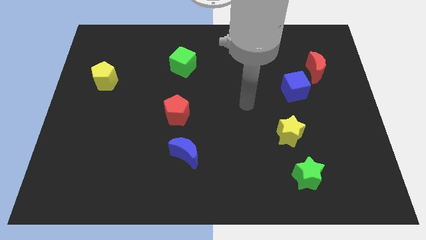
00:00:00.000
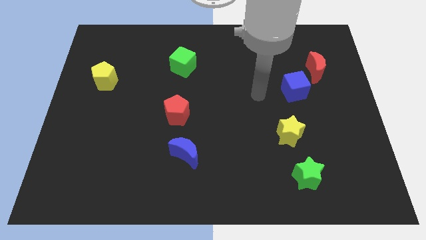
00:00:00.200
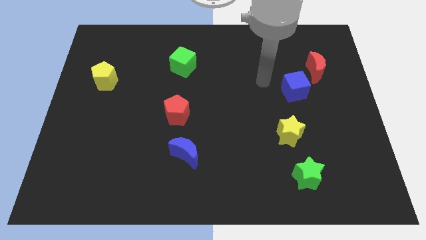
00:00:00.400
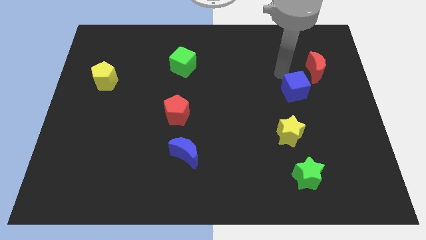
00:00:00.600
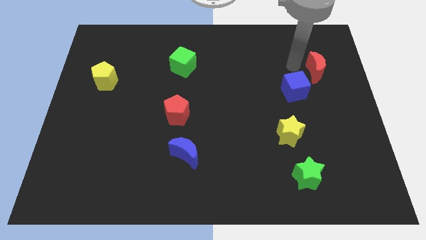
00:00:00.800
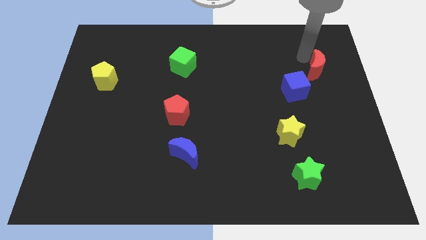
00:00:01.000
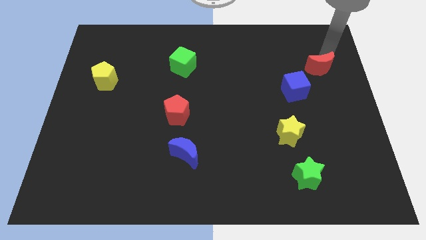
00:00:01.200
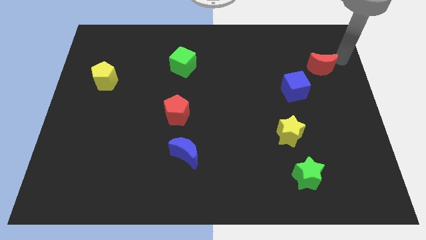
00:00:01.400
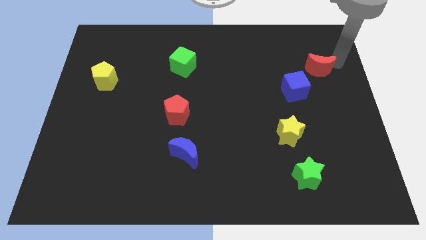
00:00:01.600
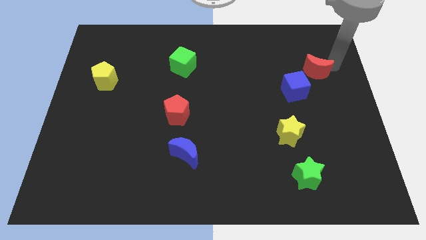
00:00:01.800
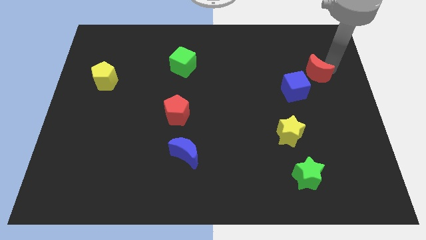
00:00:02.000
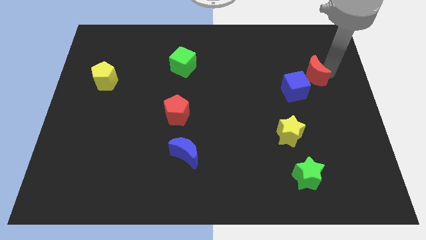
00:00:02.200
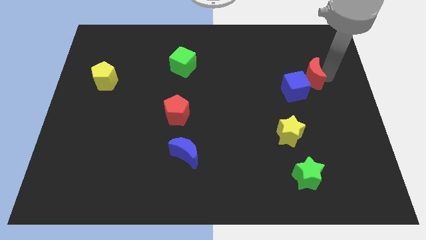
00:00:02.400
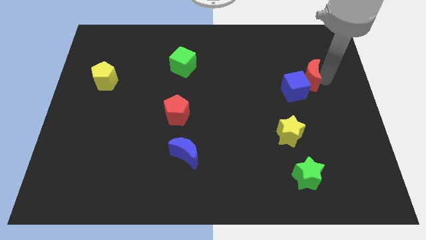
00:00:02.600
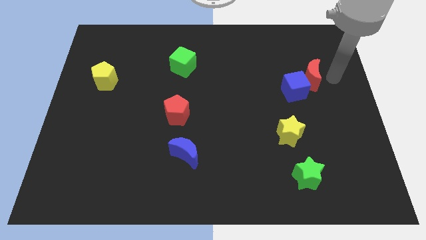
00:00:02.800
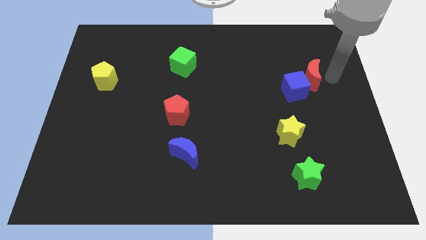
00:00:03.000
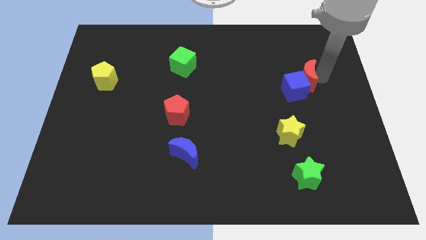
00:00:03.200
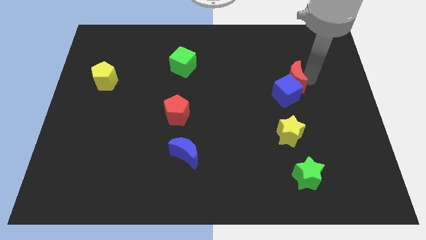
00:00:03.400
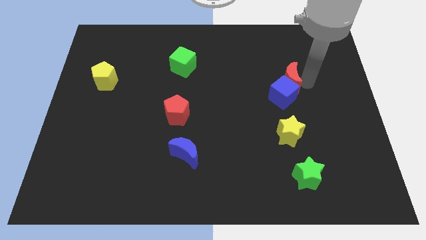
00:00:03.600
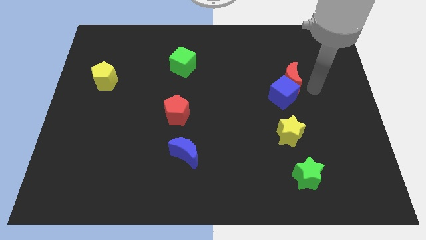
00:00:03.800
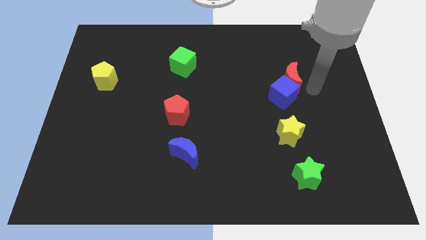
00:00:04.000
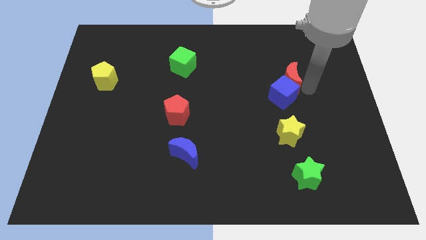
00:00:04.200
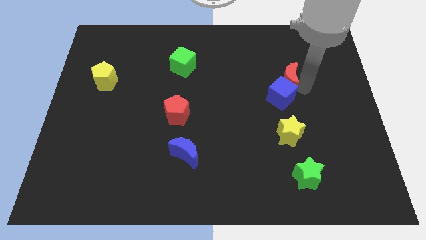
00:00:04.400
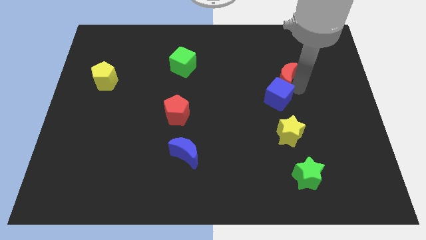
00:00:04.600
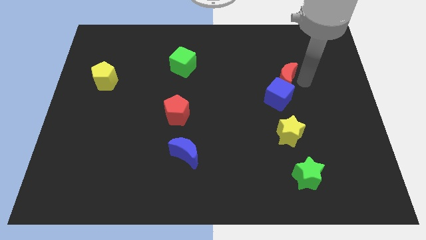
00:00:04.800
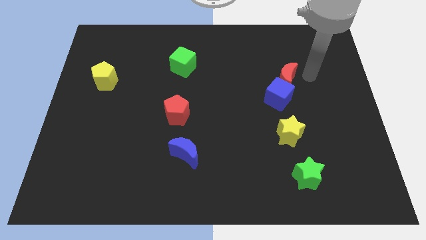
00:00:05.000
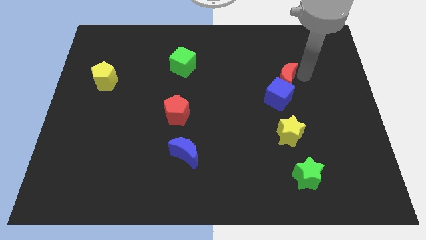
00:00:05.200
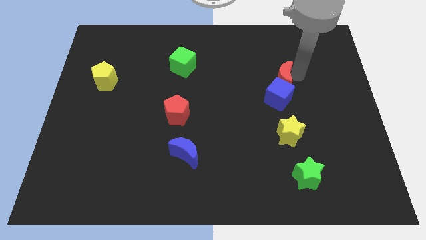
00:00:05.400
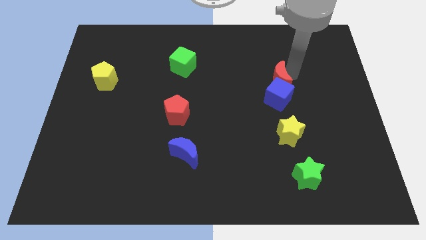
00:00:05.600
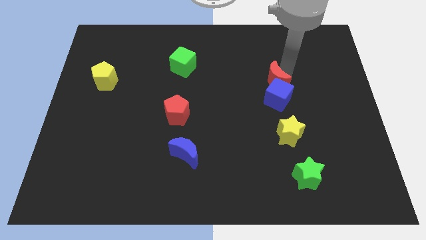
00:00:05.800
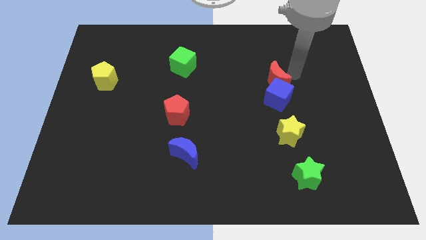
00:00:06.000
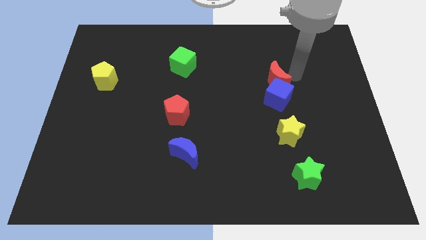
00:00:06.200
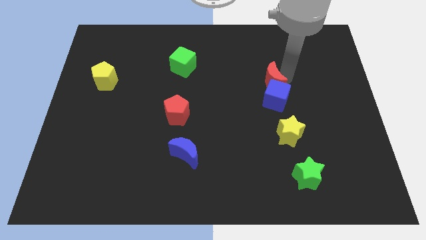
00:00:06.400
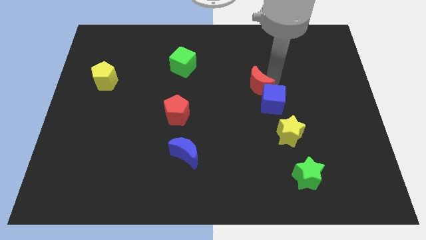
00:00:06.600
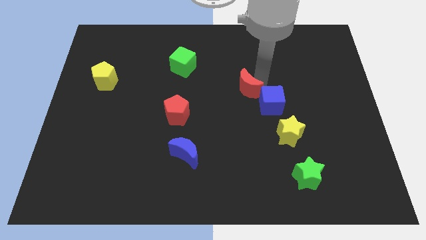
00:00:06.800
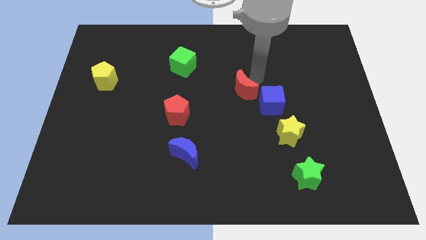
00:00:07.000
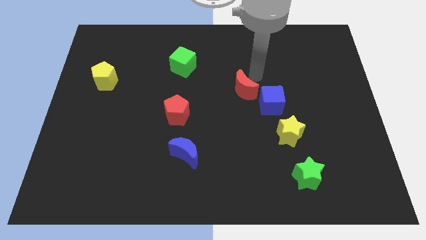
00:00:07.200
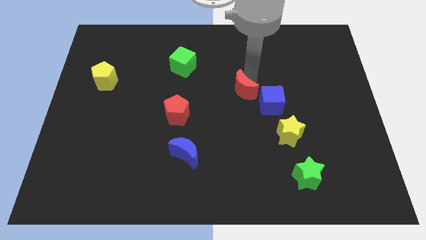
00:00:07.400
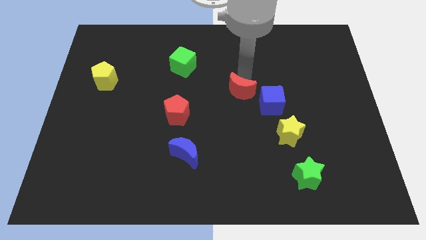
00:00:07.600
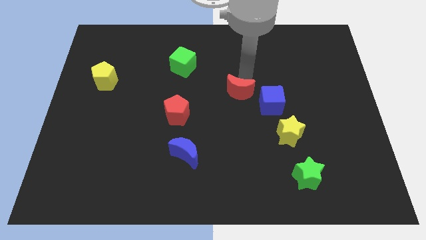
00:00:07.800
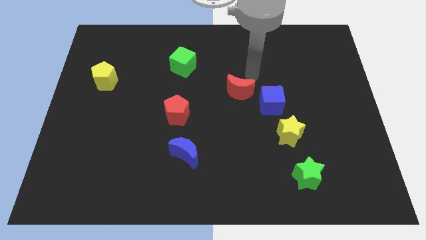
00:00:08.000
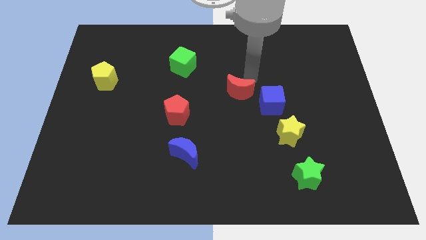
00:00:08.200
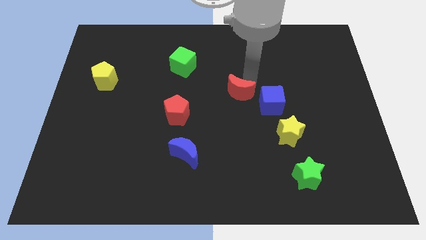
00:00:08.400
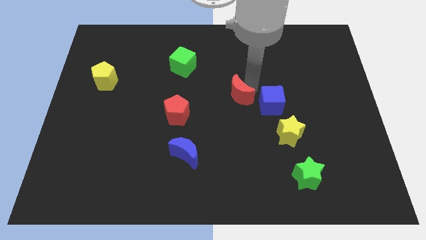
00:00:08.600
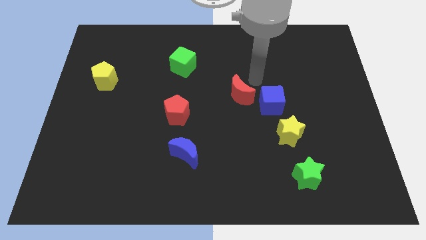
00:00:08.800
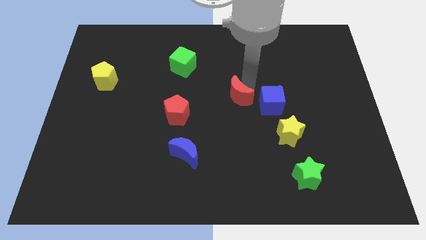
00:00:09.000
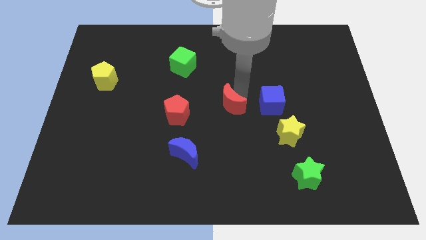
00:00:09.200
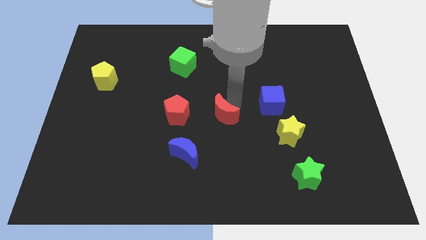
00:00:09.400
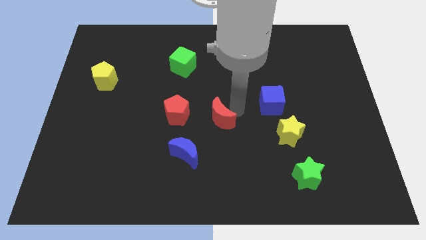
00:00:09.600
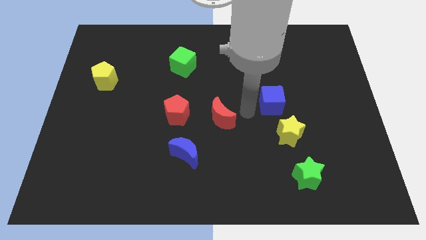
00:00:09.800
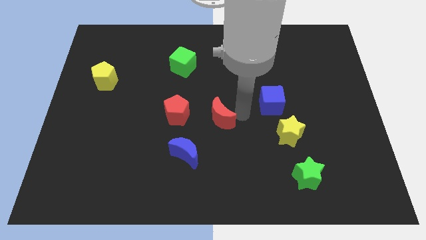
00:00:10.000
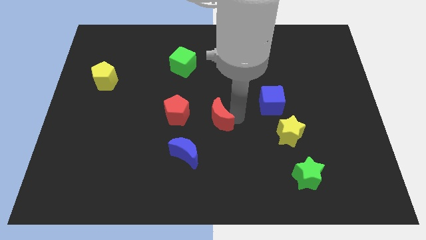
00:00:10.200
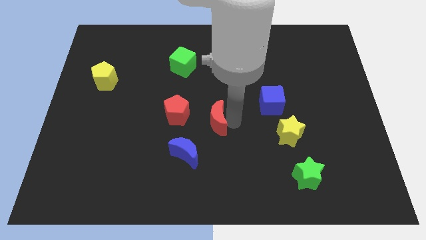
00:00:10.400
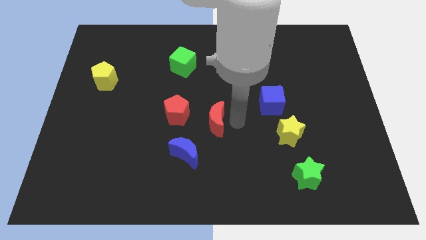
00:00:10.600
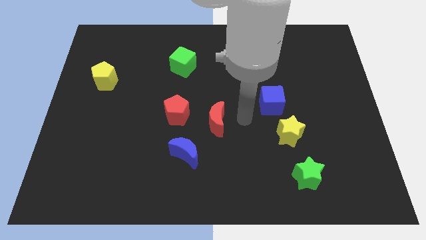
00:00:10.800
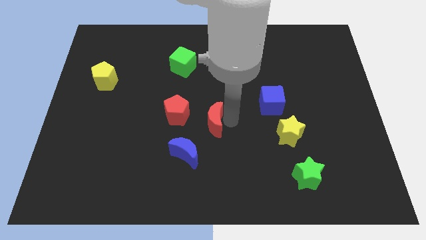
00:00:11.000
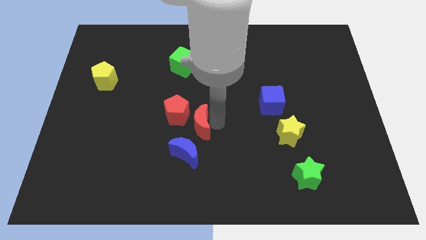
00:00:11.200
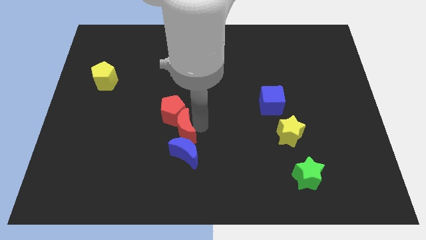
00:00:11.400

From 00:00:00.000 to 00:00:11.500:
slide the red moon to the top left side of the blue moon

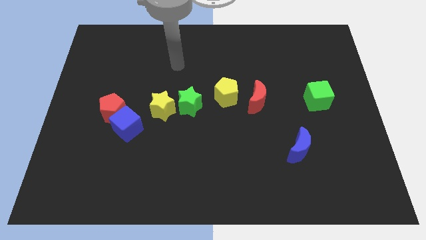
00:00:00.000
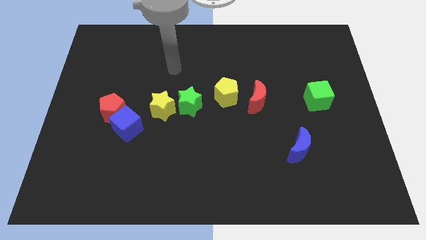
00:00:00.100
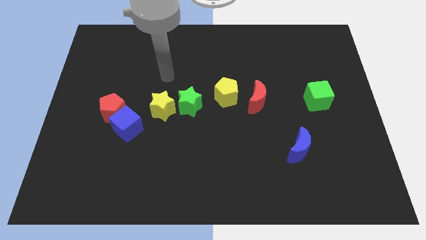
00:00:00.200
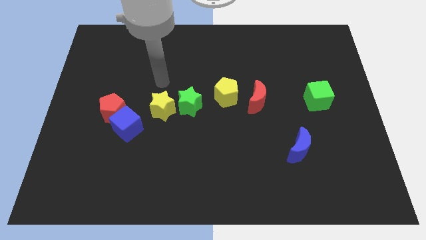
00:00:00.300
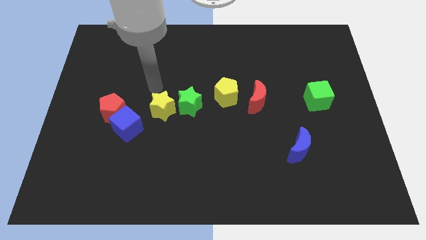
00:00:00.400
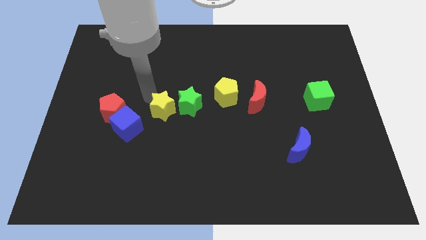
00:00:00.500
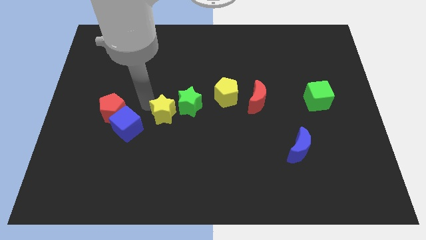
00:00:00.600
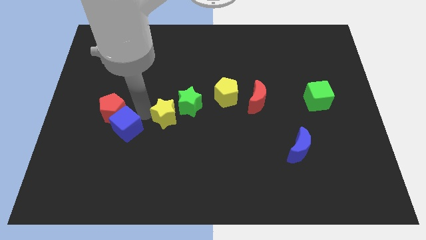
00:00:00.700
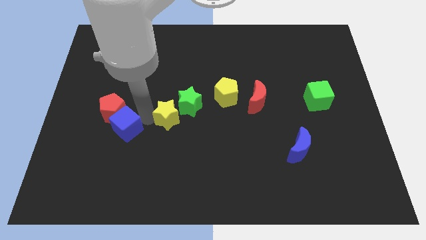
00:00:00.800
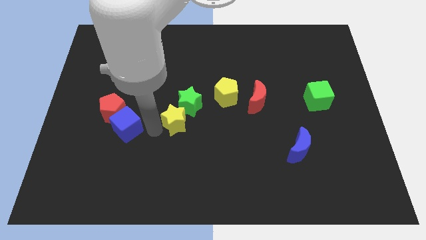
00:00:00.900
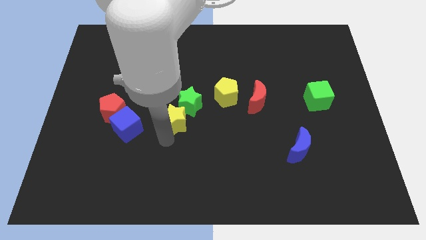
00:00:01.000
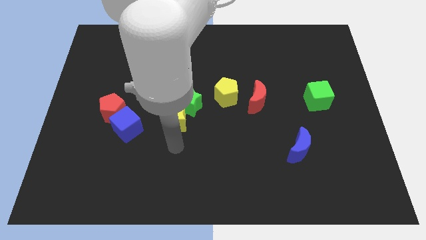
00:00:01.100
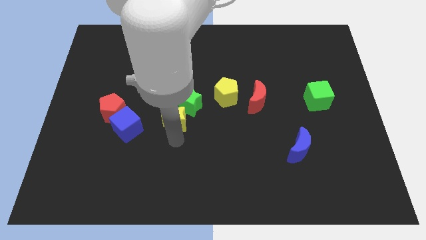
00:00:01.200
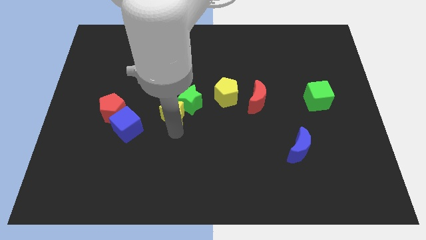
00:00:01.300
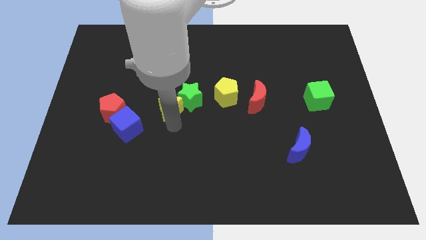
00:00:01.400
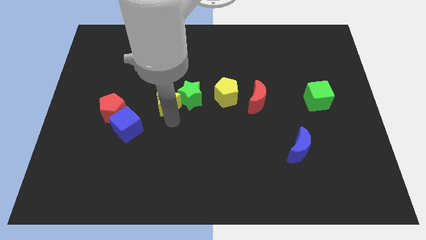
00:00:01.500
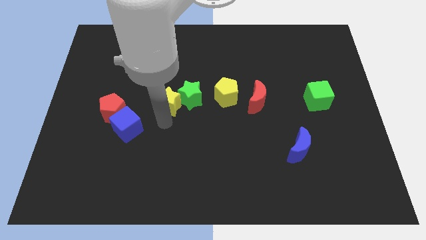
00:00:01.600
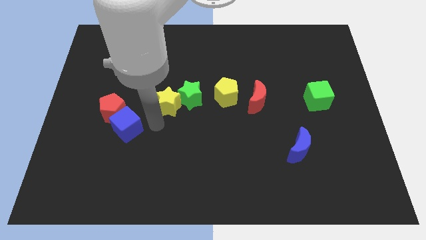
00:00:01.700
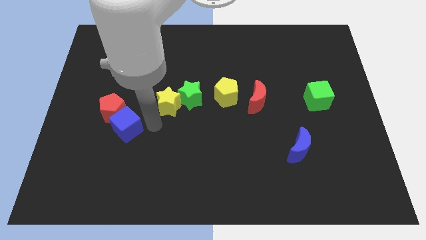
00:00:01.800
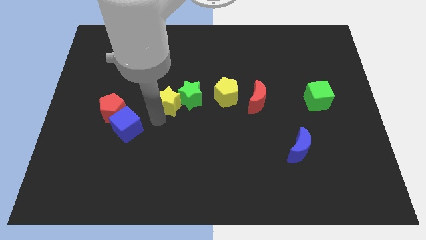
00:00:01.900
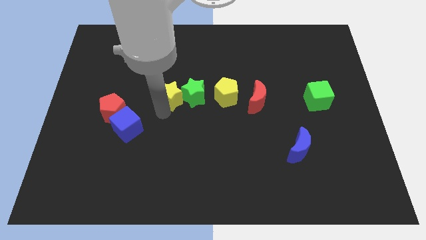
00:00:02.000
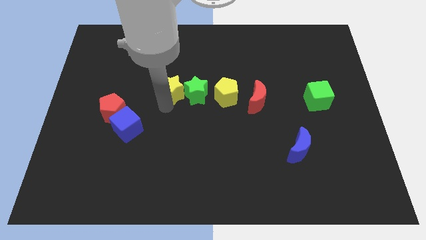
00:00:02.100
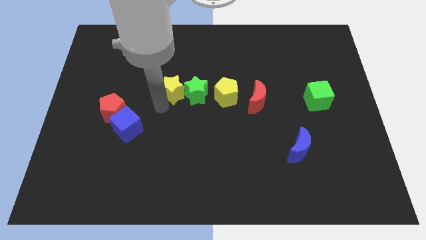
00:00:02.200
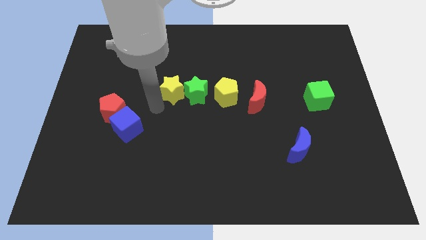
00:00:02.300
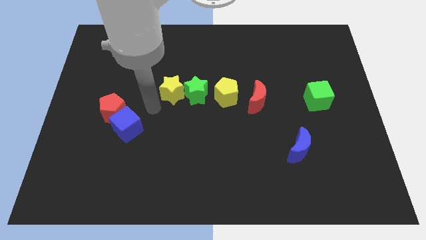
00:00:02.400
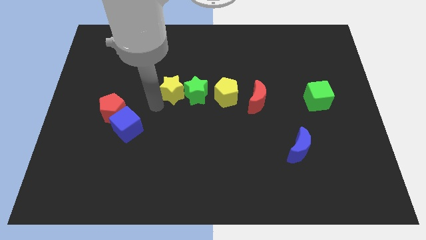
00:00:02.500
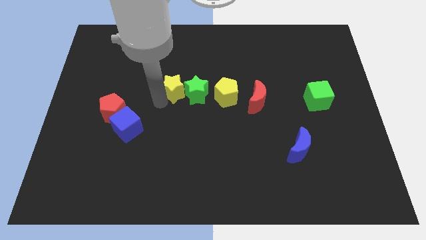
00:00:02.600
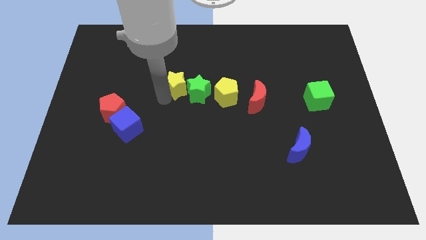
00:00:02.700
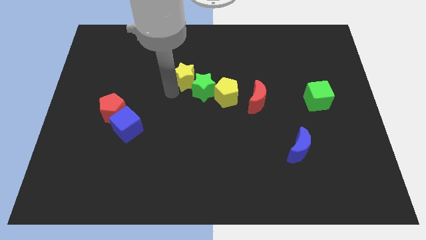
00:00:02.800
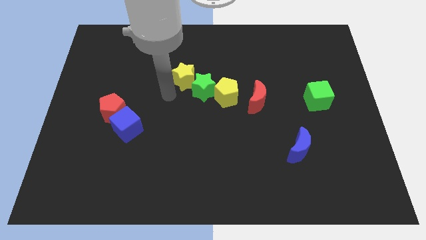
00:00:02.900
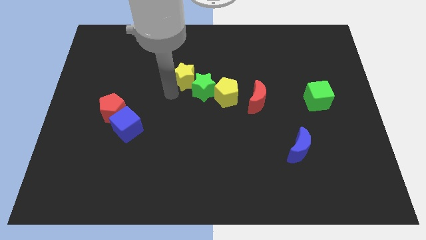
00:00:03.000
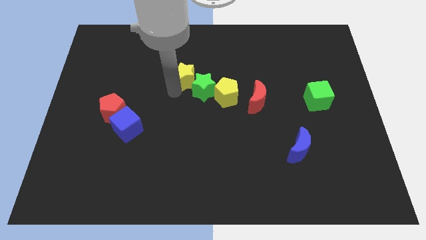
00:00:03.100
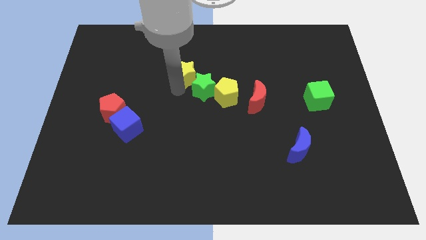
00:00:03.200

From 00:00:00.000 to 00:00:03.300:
push the yellow star to the top side of the green star
